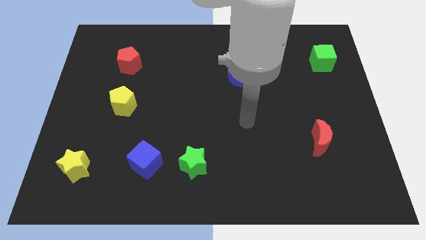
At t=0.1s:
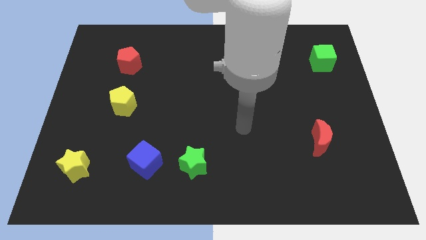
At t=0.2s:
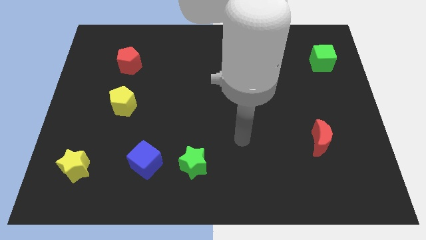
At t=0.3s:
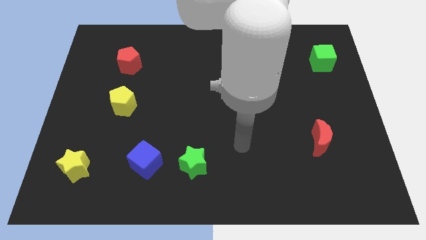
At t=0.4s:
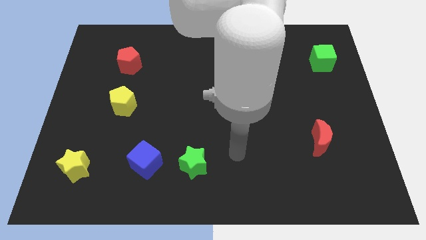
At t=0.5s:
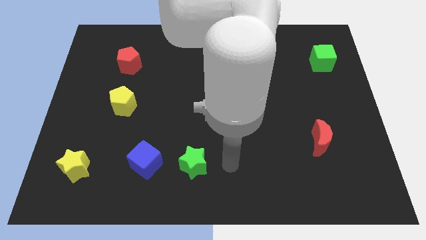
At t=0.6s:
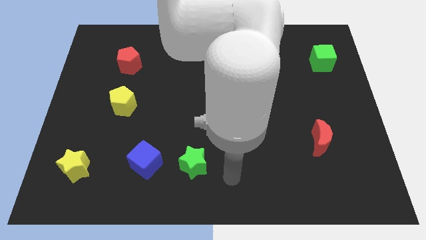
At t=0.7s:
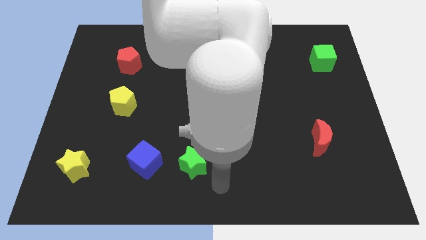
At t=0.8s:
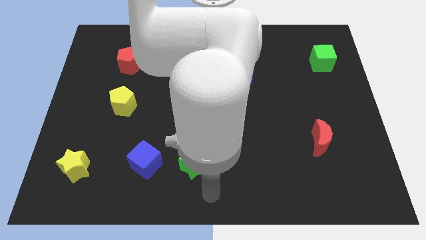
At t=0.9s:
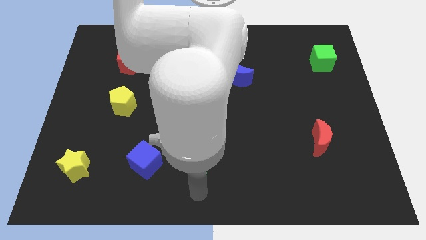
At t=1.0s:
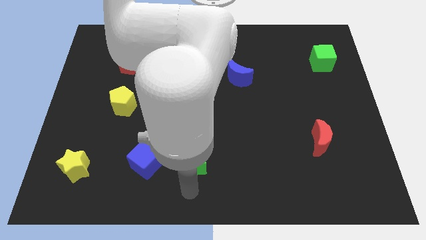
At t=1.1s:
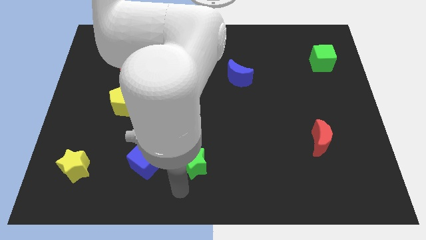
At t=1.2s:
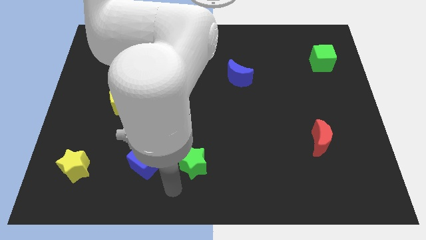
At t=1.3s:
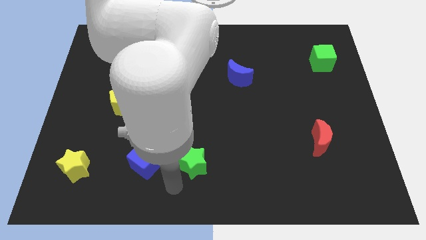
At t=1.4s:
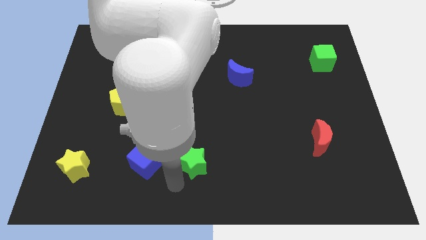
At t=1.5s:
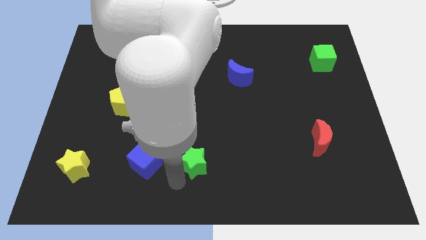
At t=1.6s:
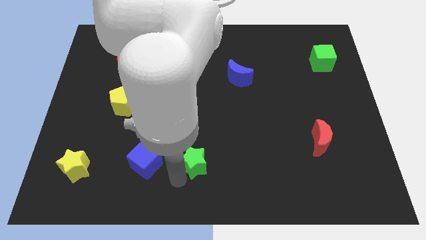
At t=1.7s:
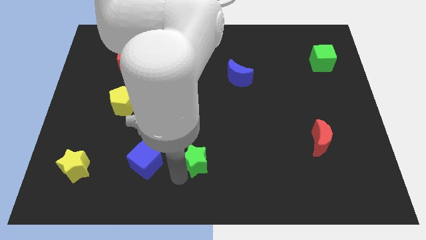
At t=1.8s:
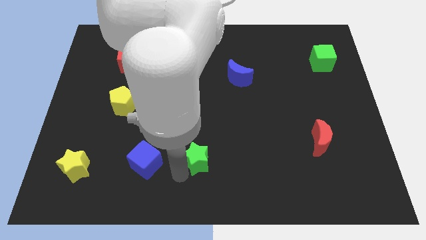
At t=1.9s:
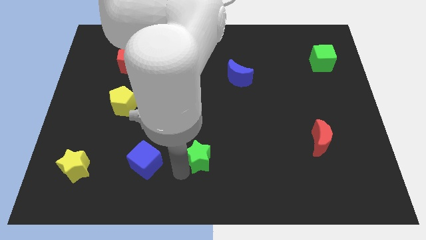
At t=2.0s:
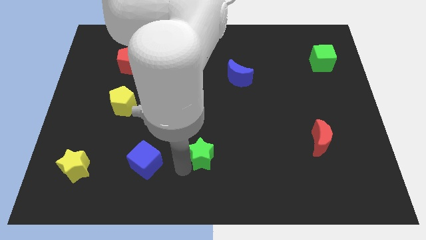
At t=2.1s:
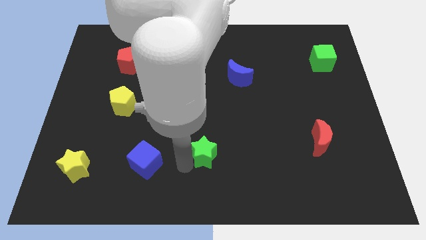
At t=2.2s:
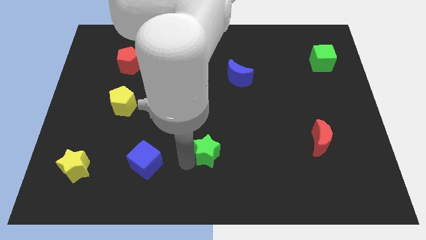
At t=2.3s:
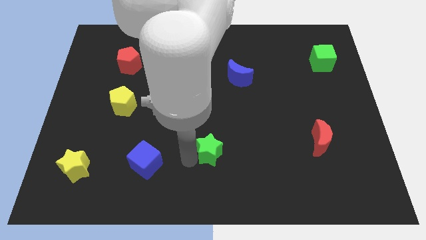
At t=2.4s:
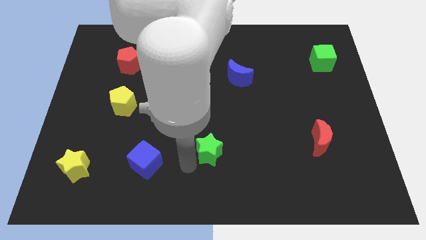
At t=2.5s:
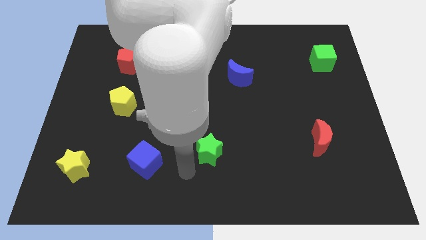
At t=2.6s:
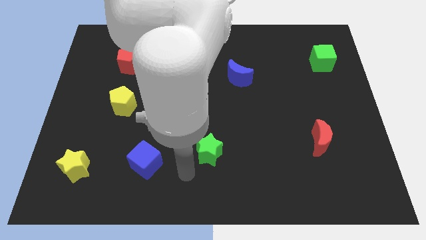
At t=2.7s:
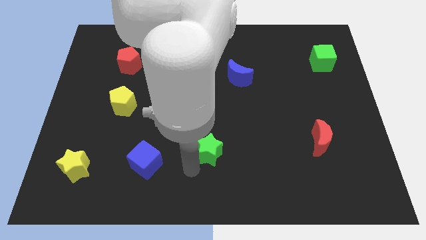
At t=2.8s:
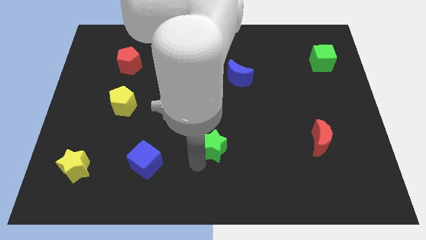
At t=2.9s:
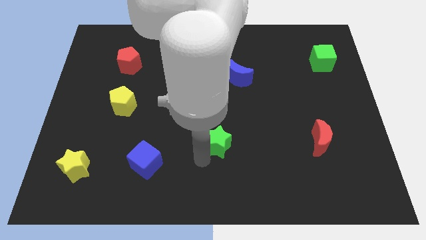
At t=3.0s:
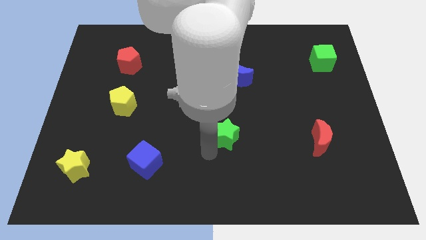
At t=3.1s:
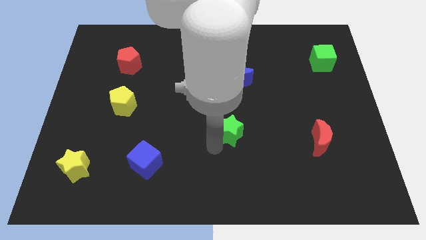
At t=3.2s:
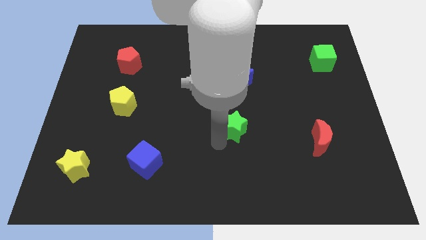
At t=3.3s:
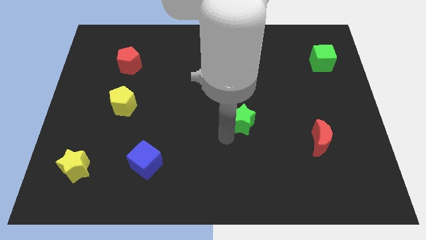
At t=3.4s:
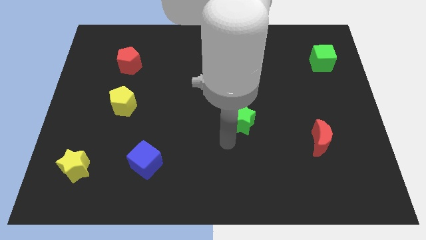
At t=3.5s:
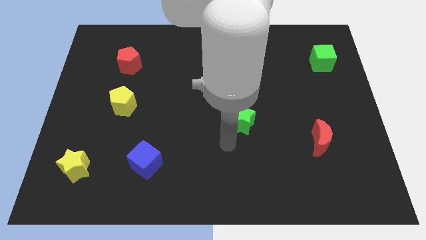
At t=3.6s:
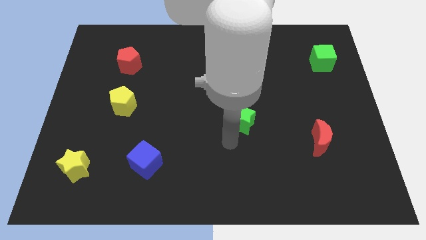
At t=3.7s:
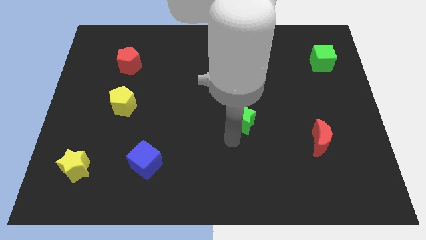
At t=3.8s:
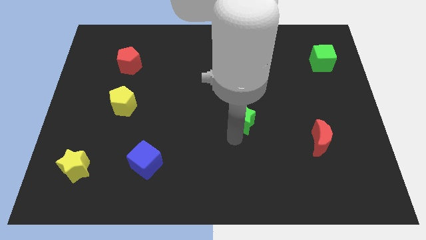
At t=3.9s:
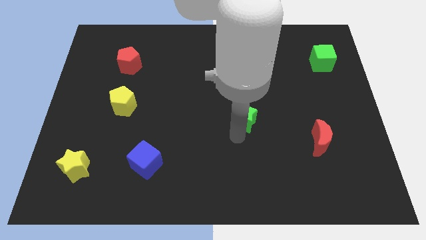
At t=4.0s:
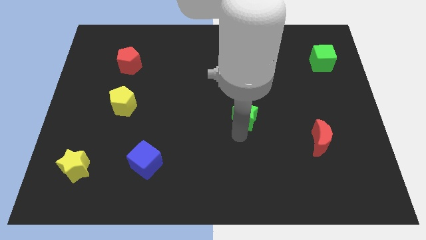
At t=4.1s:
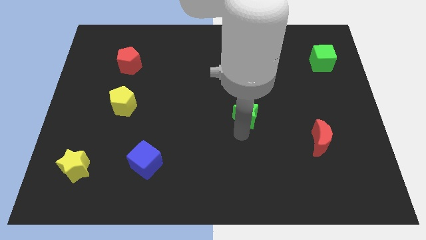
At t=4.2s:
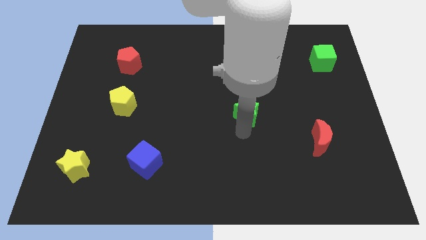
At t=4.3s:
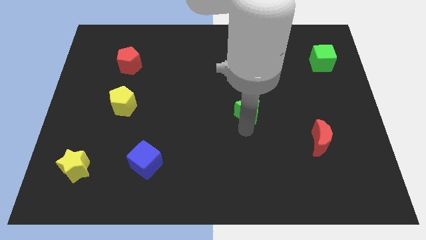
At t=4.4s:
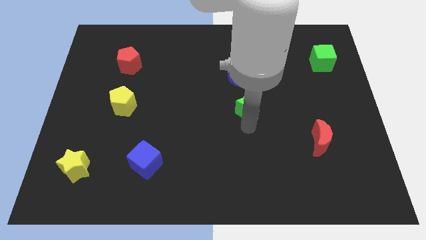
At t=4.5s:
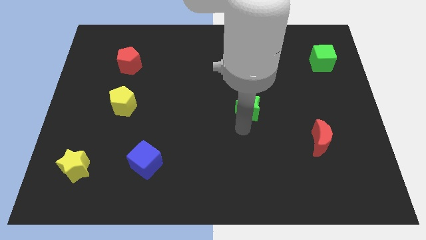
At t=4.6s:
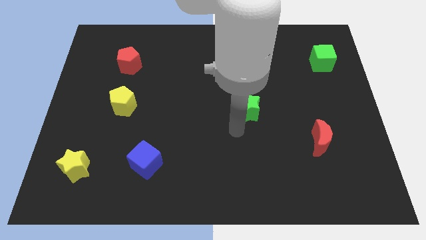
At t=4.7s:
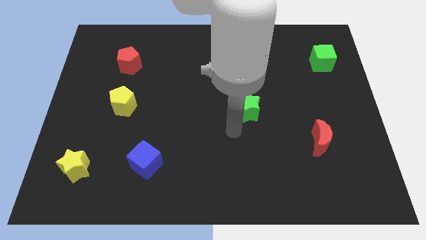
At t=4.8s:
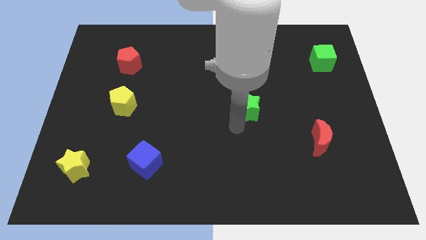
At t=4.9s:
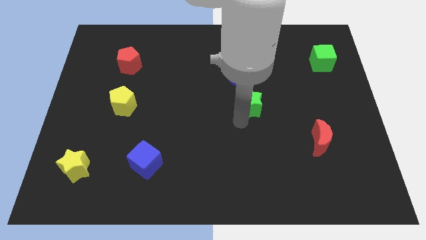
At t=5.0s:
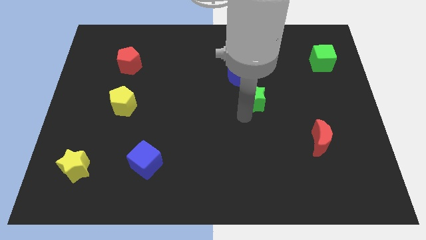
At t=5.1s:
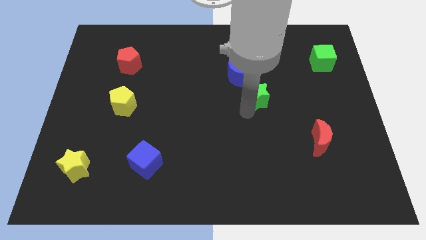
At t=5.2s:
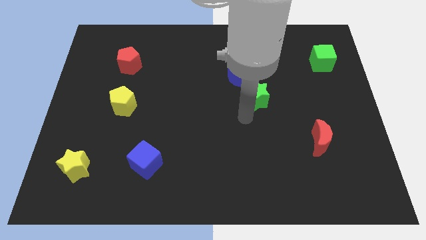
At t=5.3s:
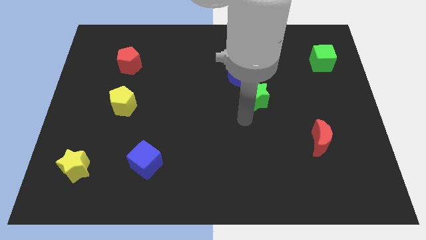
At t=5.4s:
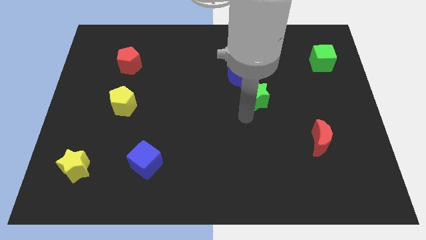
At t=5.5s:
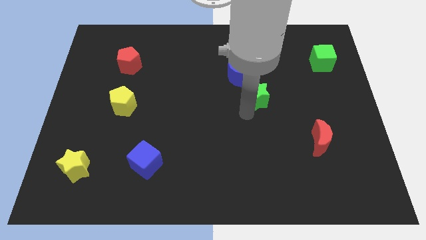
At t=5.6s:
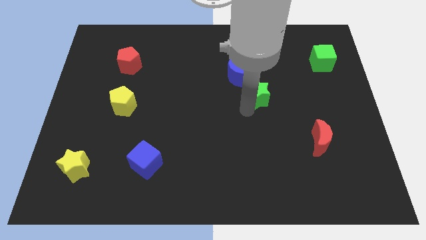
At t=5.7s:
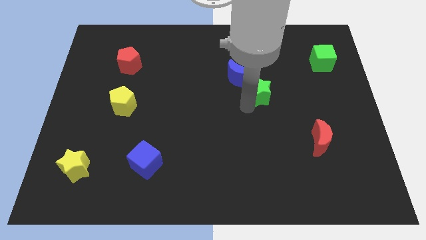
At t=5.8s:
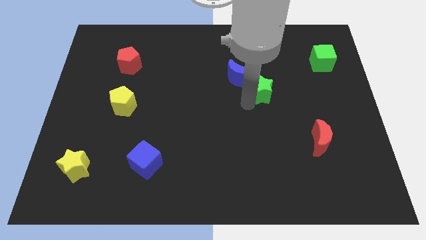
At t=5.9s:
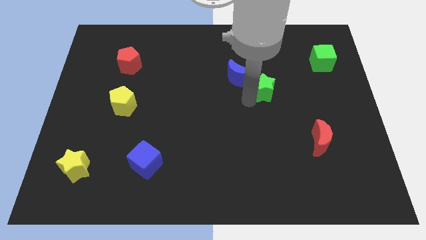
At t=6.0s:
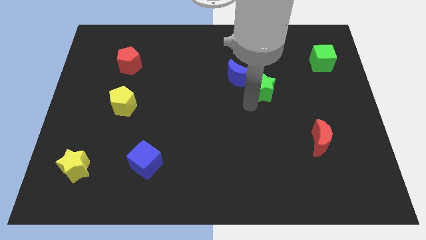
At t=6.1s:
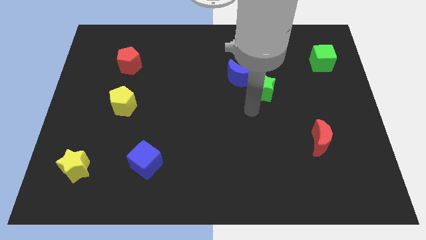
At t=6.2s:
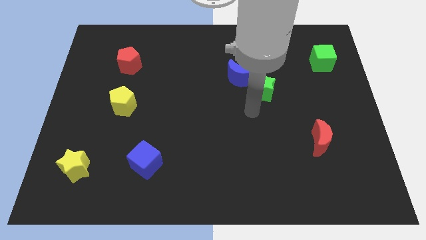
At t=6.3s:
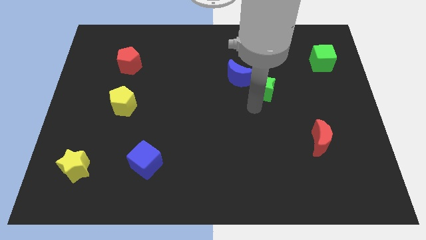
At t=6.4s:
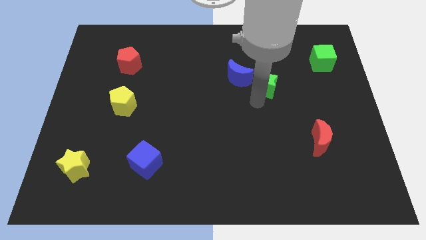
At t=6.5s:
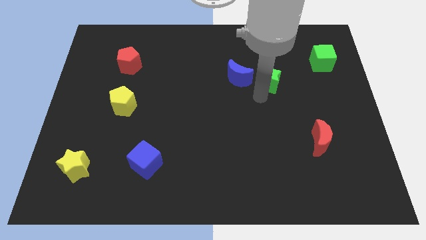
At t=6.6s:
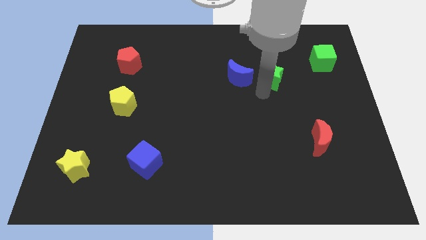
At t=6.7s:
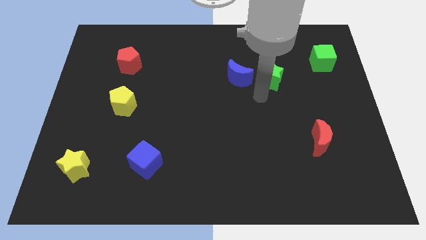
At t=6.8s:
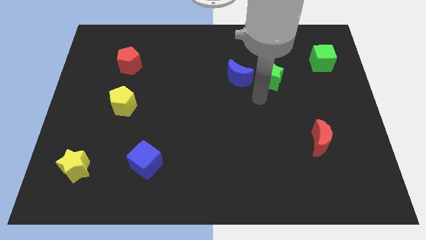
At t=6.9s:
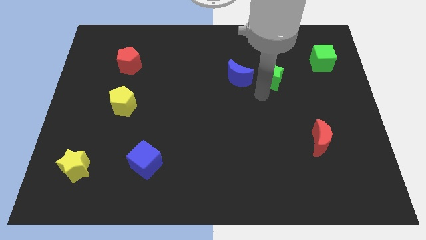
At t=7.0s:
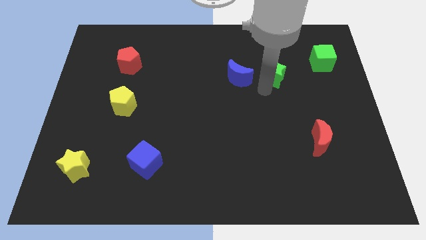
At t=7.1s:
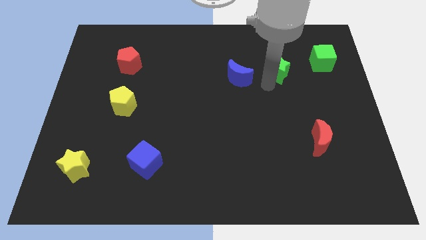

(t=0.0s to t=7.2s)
put the green star to the left side of the green cube
